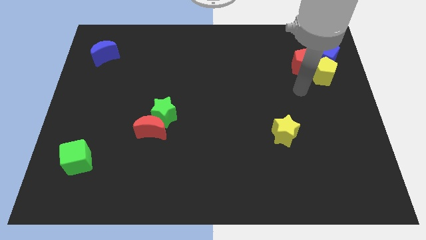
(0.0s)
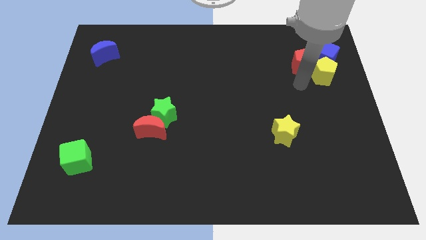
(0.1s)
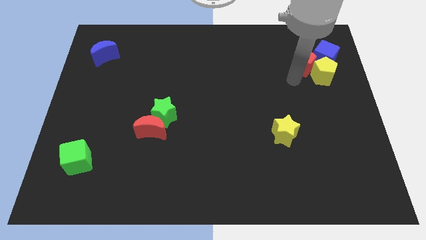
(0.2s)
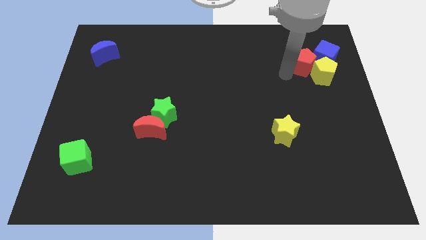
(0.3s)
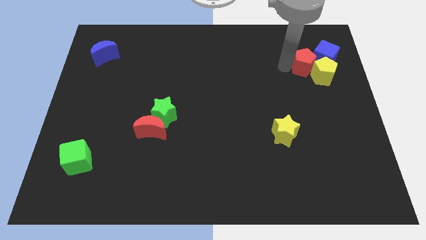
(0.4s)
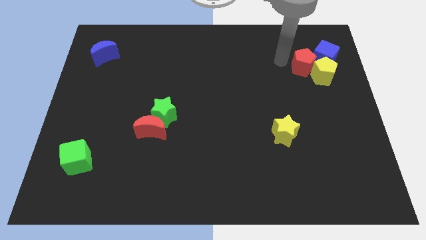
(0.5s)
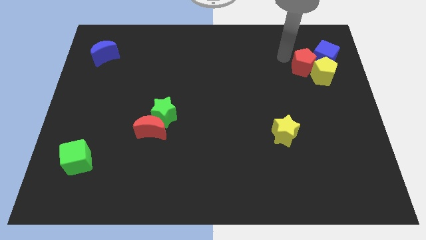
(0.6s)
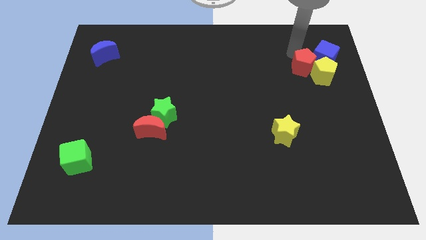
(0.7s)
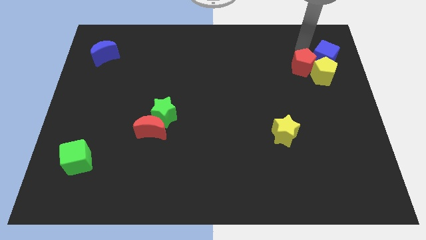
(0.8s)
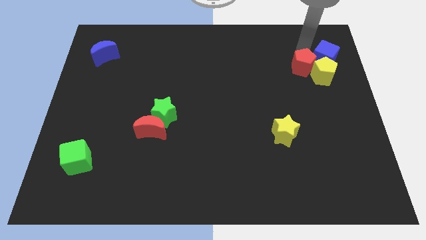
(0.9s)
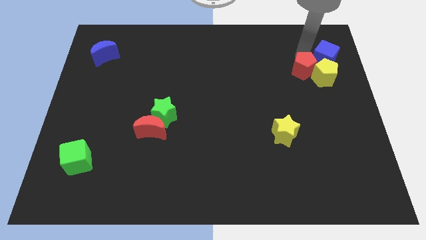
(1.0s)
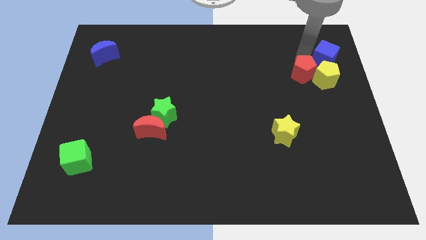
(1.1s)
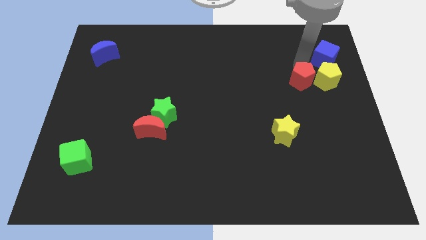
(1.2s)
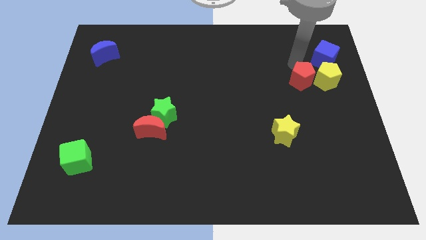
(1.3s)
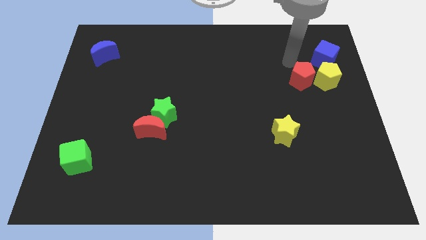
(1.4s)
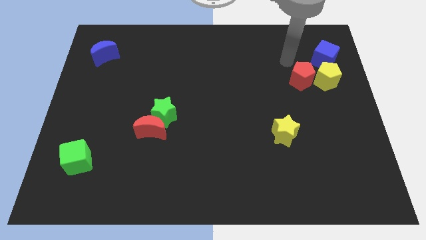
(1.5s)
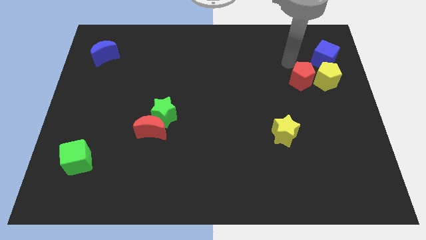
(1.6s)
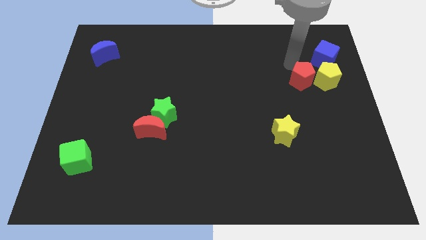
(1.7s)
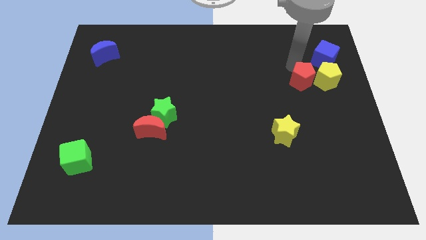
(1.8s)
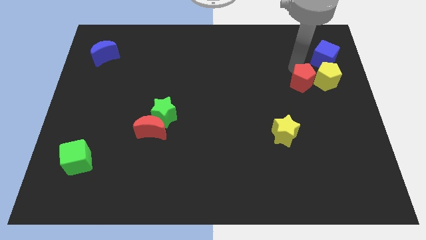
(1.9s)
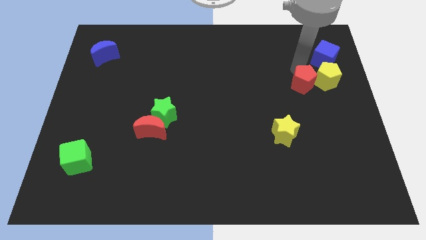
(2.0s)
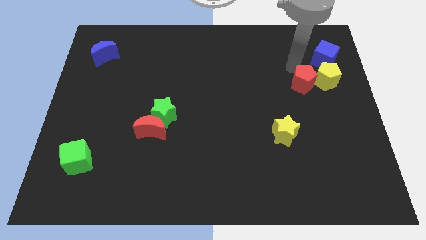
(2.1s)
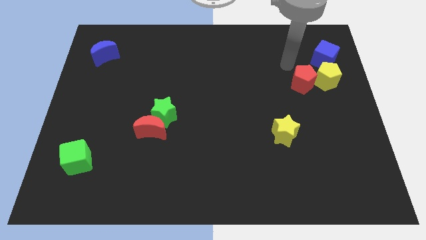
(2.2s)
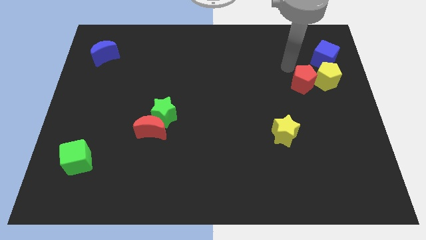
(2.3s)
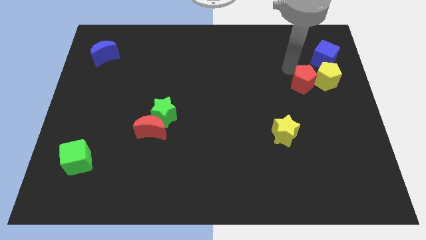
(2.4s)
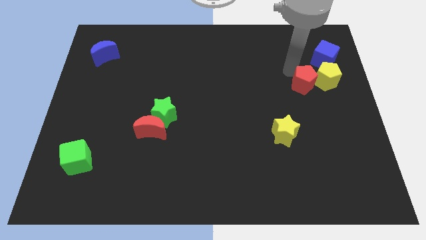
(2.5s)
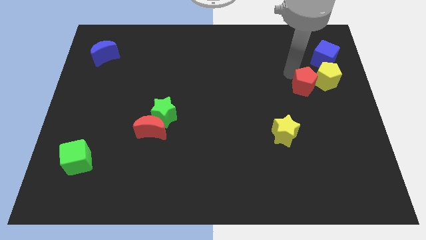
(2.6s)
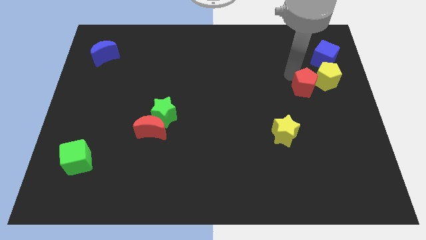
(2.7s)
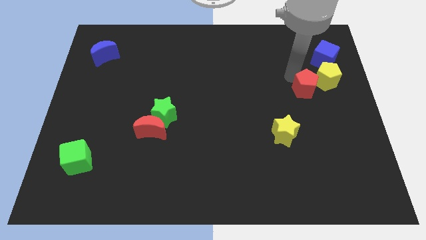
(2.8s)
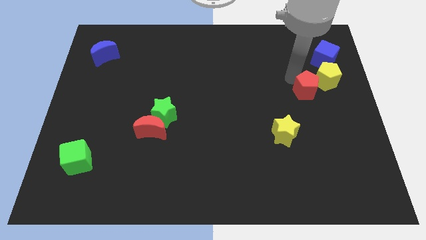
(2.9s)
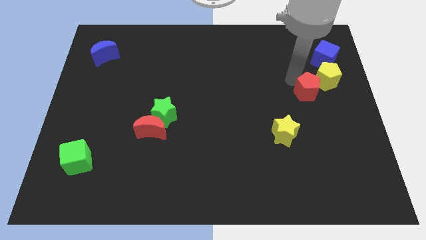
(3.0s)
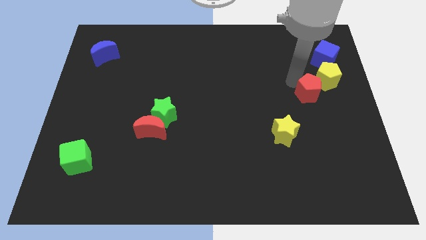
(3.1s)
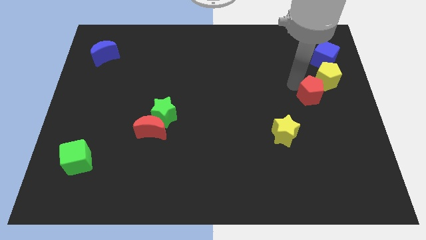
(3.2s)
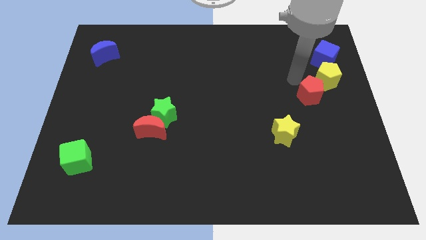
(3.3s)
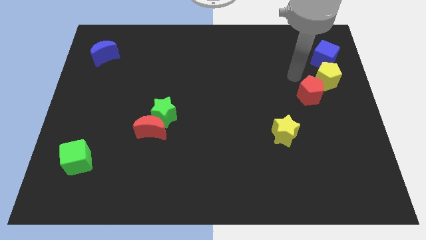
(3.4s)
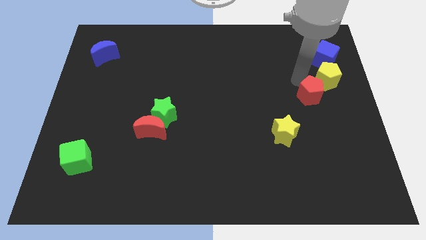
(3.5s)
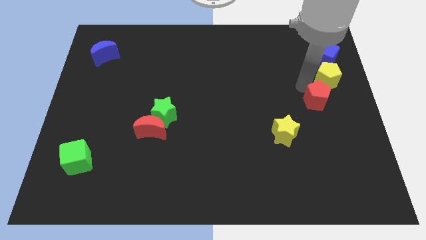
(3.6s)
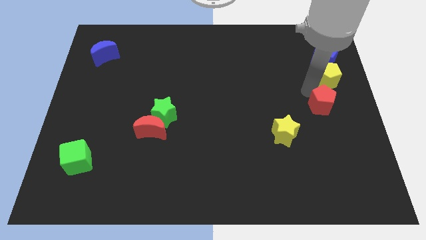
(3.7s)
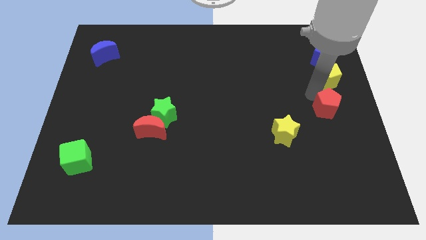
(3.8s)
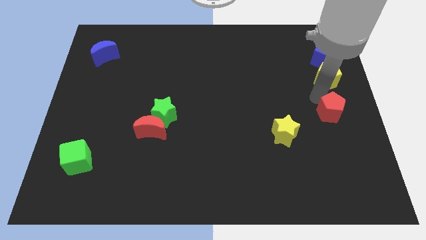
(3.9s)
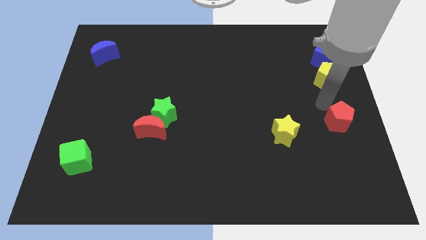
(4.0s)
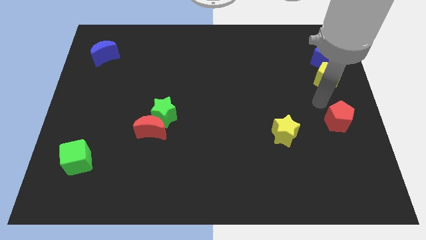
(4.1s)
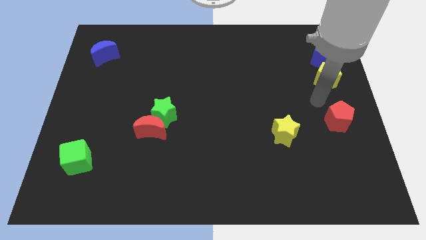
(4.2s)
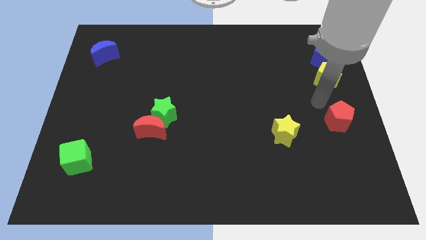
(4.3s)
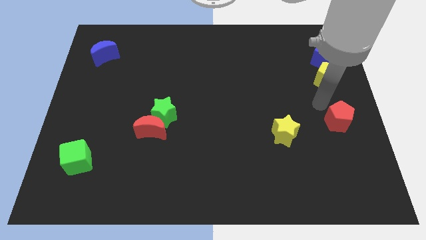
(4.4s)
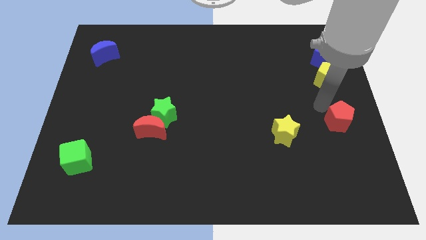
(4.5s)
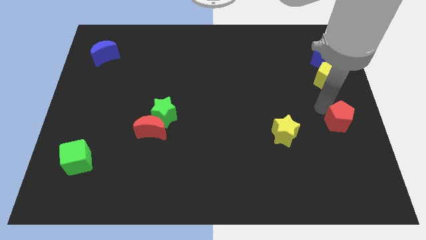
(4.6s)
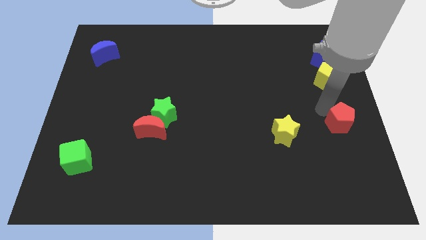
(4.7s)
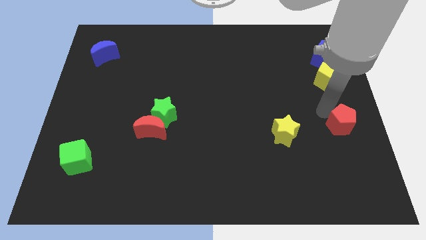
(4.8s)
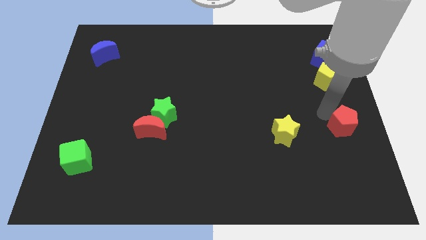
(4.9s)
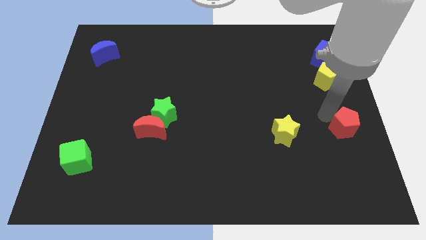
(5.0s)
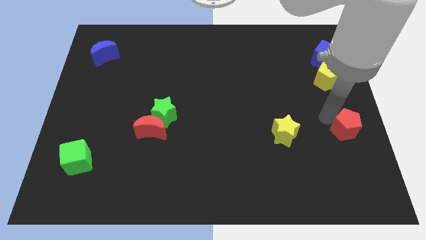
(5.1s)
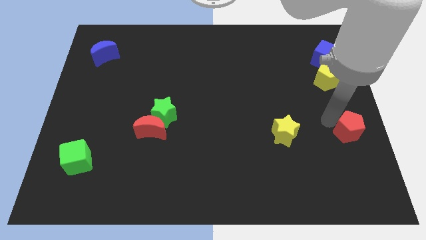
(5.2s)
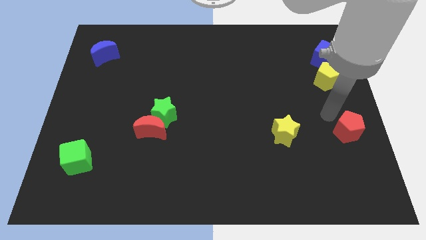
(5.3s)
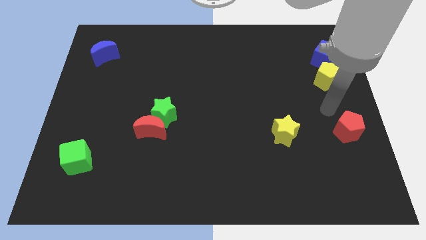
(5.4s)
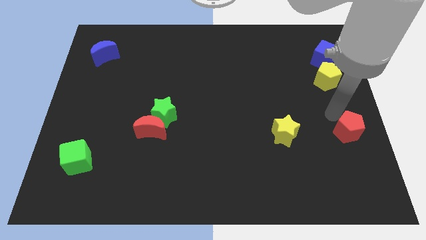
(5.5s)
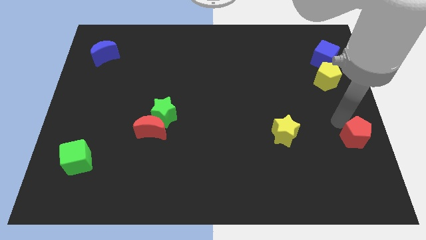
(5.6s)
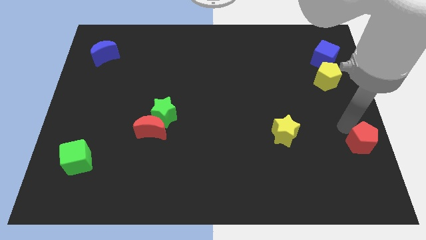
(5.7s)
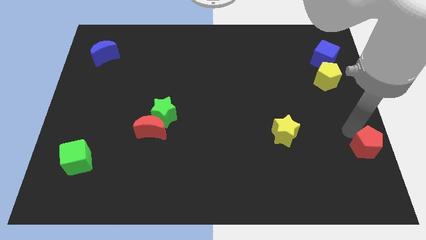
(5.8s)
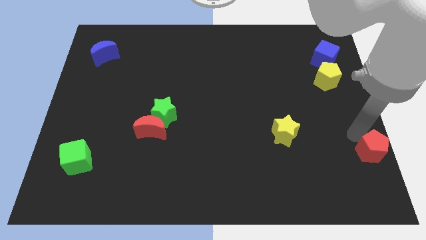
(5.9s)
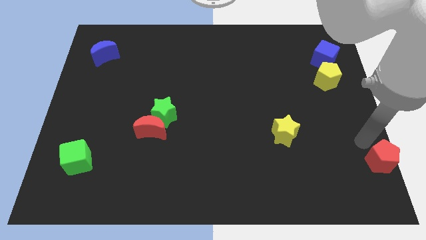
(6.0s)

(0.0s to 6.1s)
push the red pentagon to the bottom right of the board
